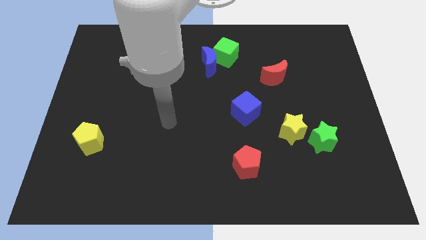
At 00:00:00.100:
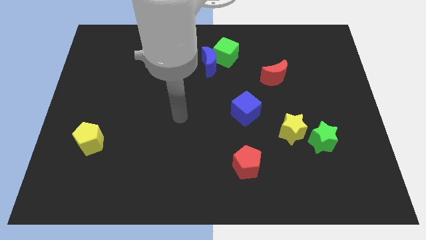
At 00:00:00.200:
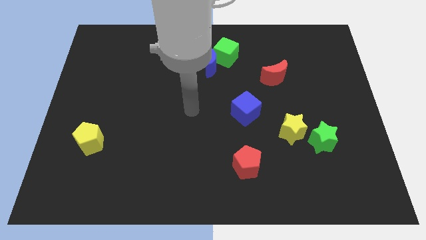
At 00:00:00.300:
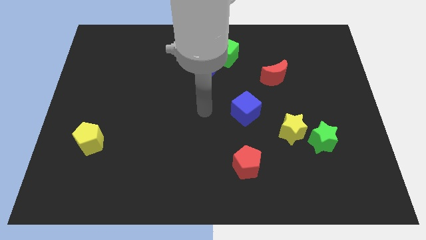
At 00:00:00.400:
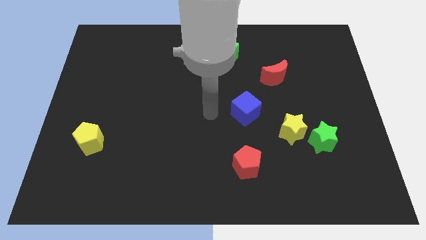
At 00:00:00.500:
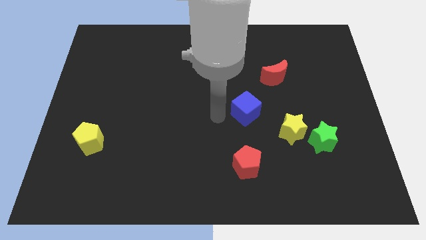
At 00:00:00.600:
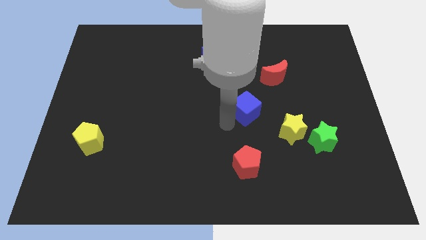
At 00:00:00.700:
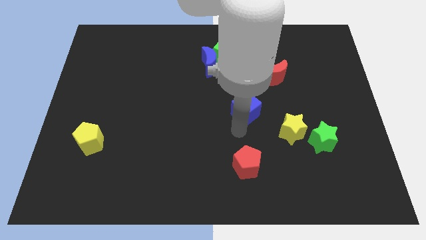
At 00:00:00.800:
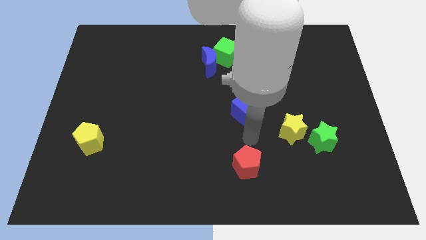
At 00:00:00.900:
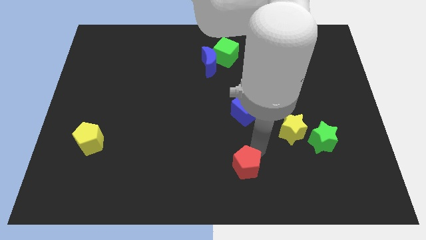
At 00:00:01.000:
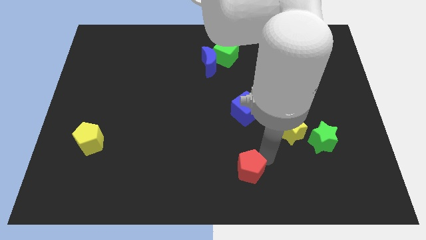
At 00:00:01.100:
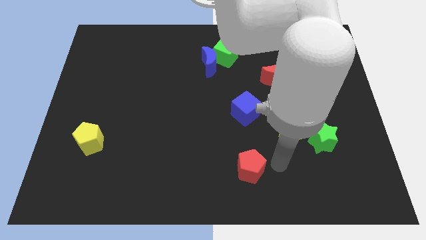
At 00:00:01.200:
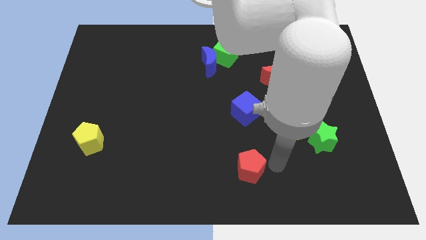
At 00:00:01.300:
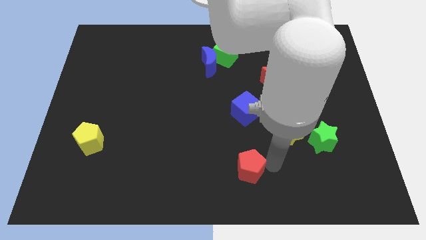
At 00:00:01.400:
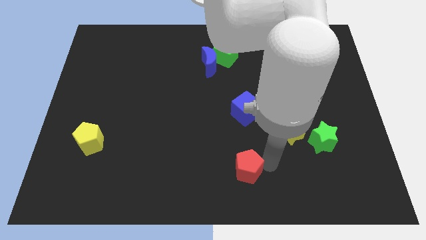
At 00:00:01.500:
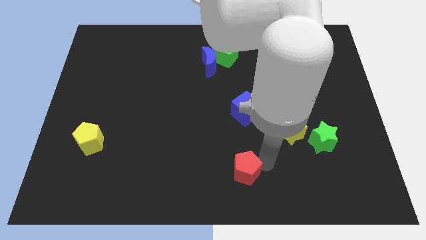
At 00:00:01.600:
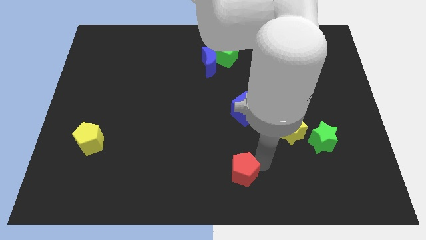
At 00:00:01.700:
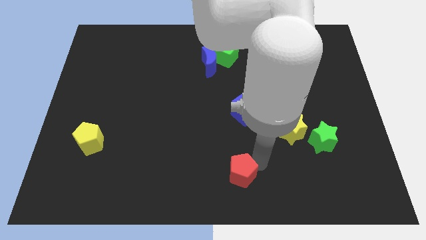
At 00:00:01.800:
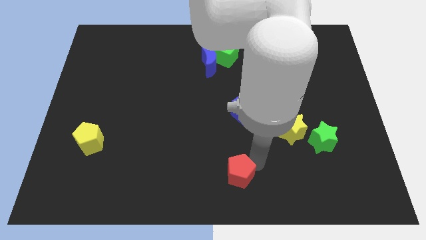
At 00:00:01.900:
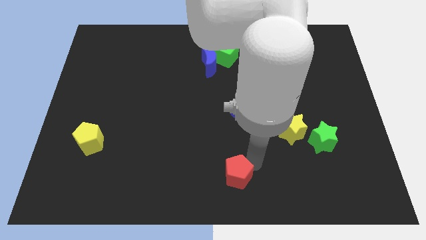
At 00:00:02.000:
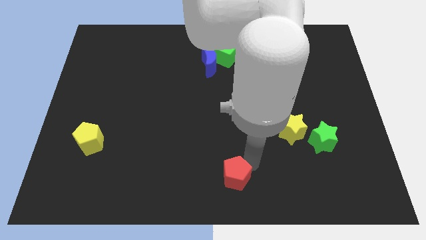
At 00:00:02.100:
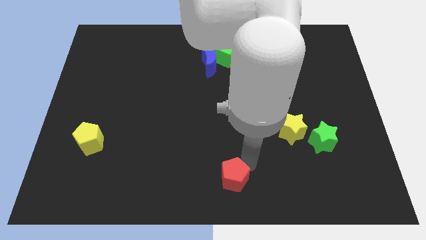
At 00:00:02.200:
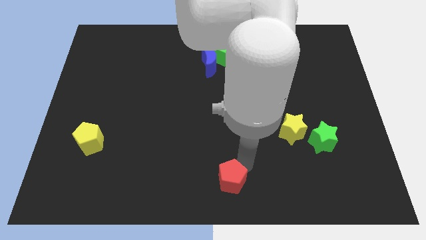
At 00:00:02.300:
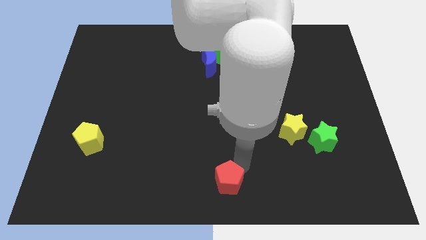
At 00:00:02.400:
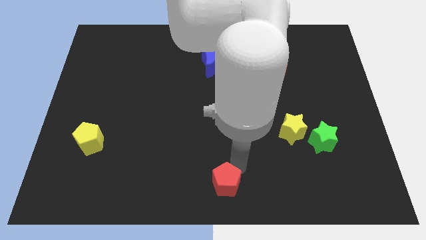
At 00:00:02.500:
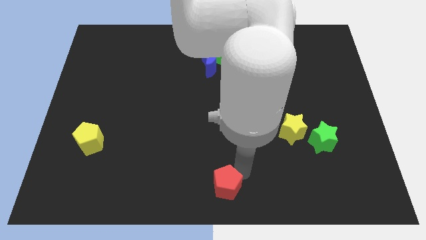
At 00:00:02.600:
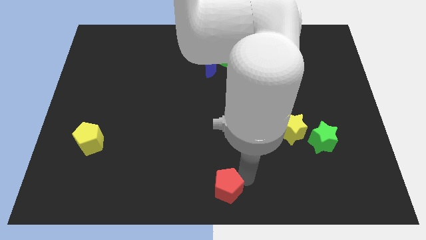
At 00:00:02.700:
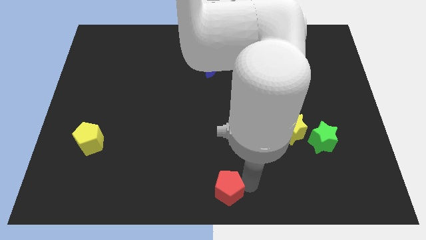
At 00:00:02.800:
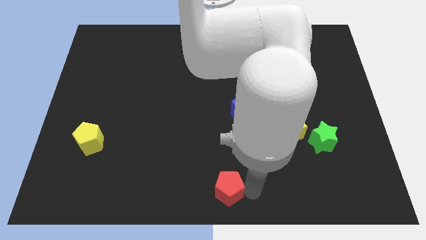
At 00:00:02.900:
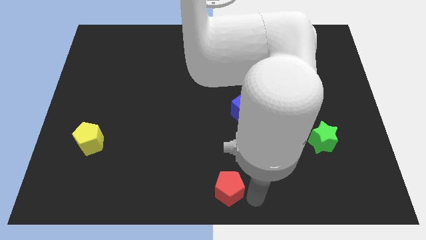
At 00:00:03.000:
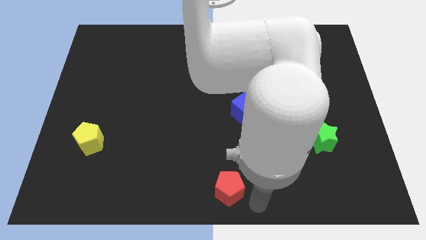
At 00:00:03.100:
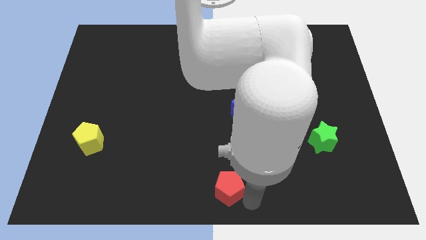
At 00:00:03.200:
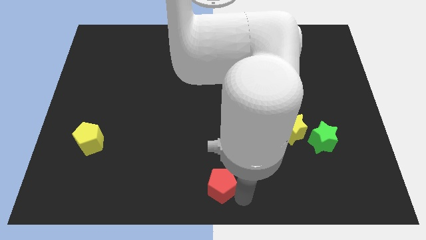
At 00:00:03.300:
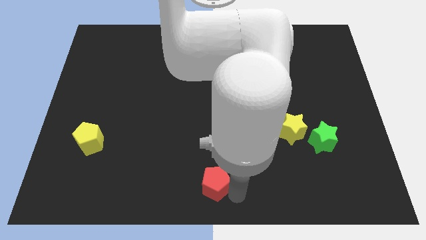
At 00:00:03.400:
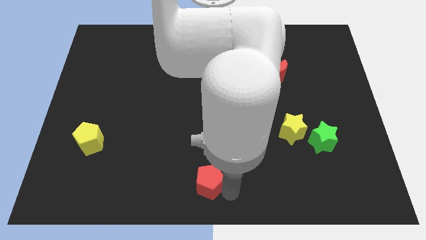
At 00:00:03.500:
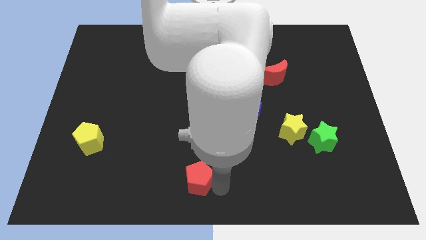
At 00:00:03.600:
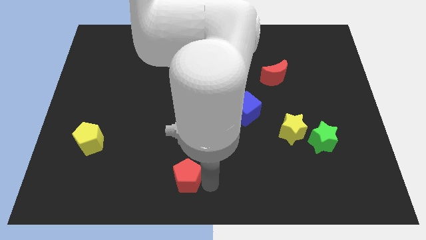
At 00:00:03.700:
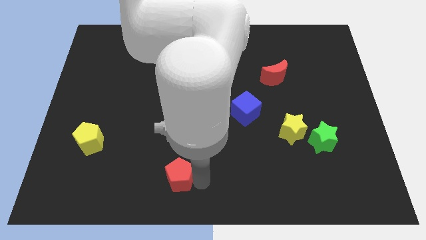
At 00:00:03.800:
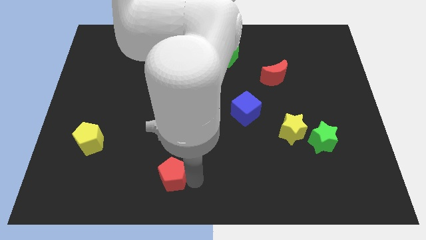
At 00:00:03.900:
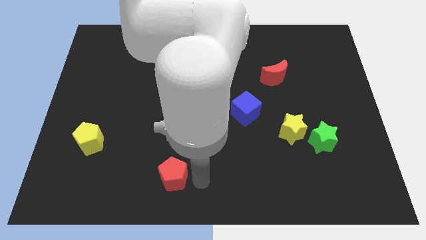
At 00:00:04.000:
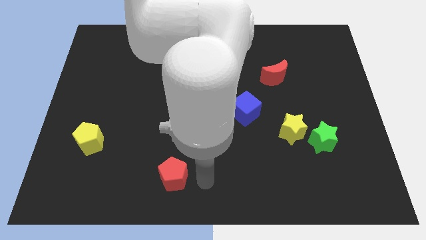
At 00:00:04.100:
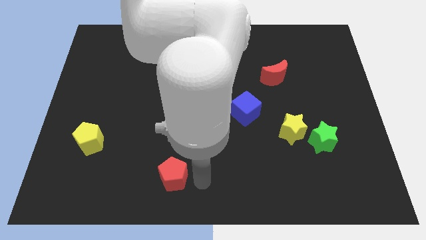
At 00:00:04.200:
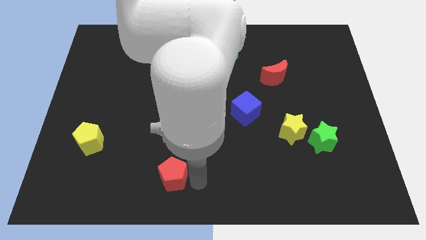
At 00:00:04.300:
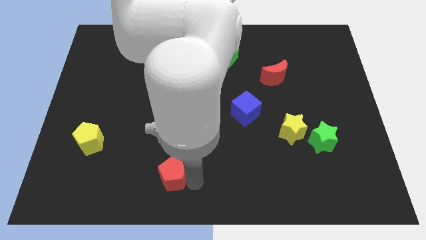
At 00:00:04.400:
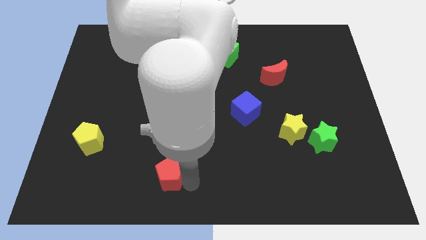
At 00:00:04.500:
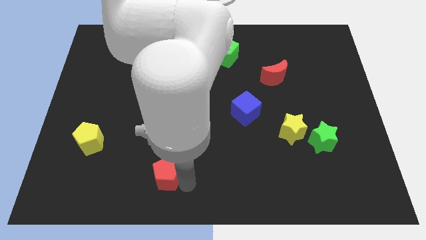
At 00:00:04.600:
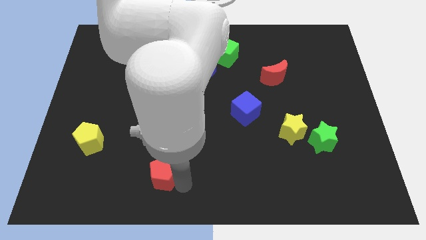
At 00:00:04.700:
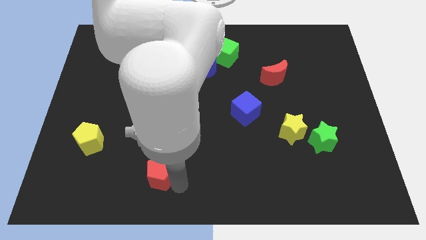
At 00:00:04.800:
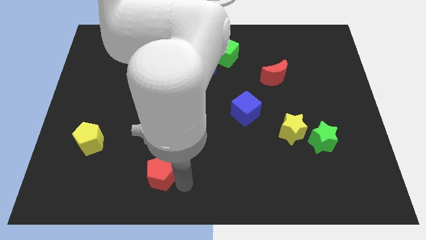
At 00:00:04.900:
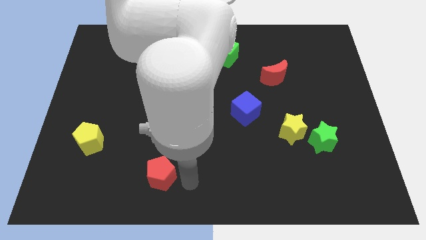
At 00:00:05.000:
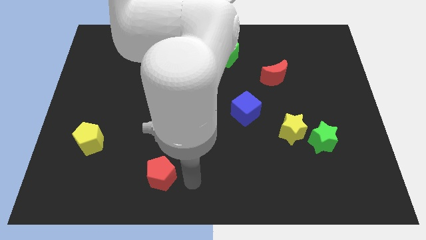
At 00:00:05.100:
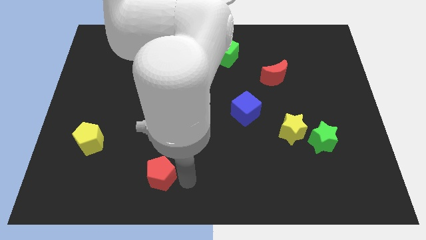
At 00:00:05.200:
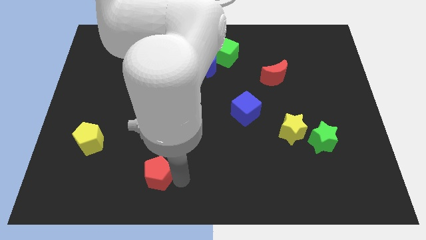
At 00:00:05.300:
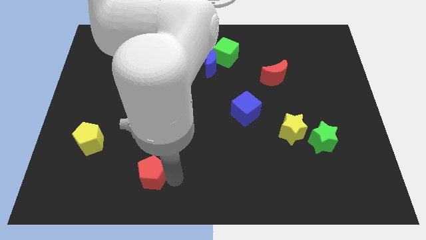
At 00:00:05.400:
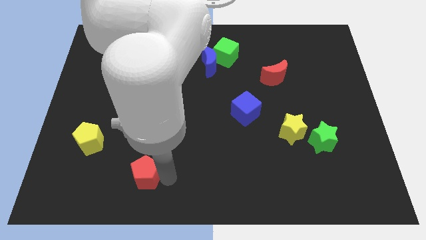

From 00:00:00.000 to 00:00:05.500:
slide the red pentagon left

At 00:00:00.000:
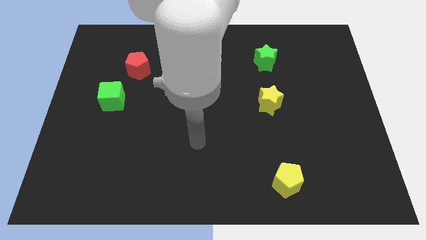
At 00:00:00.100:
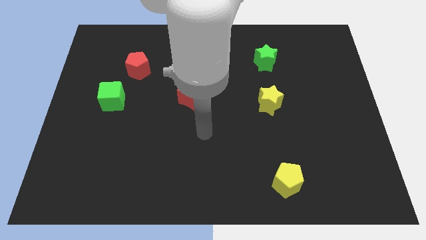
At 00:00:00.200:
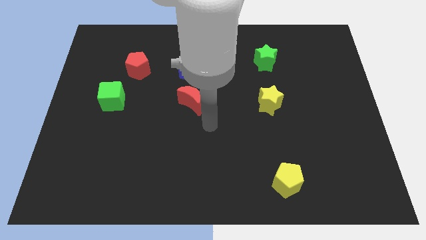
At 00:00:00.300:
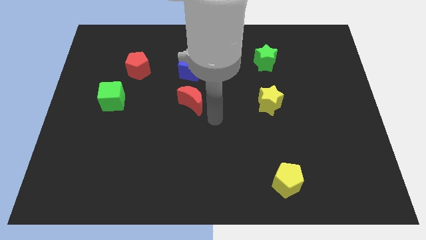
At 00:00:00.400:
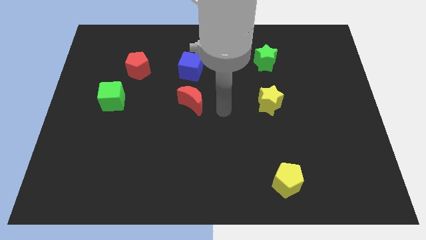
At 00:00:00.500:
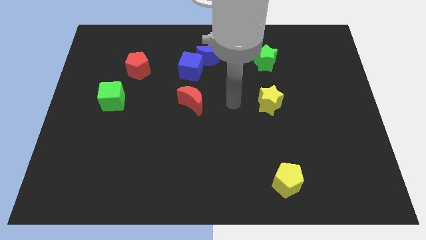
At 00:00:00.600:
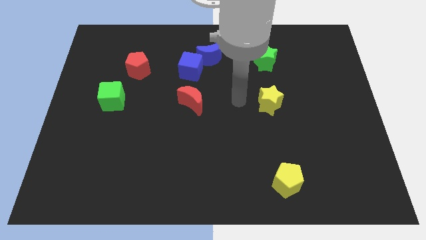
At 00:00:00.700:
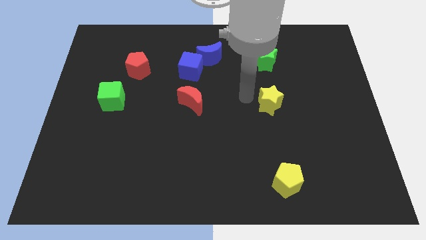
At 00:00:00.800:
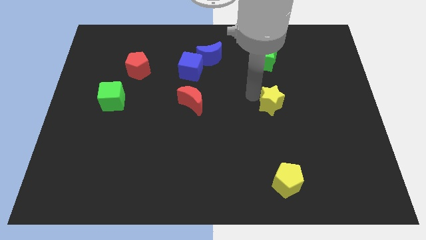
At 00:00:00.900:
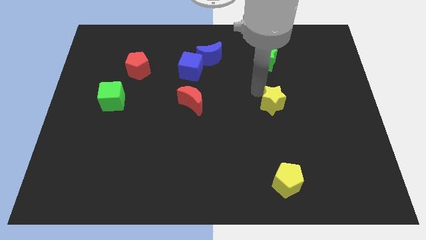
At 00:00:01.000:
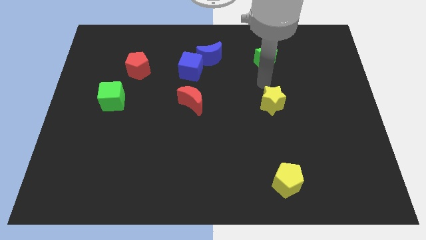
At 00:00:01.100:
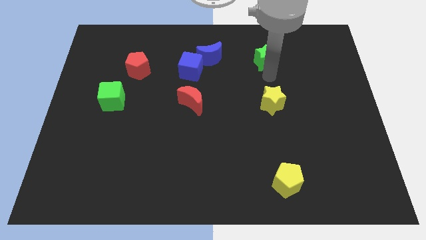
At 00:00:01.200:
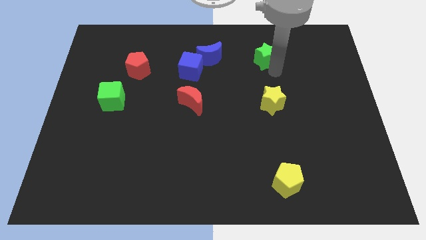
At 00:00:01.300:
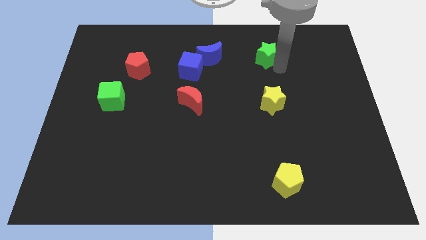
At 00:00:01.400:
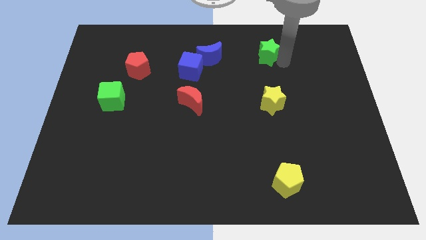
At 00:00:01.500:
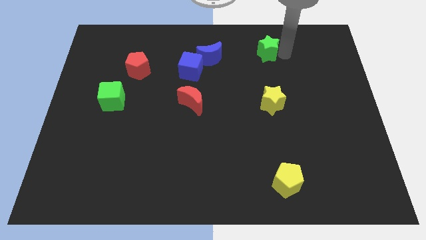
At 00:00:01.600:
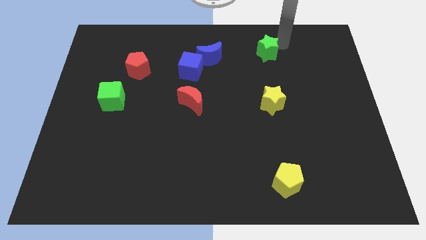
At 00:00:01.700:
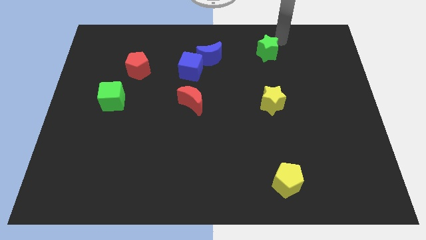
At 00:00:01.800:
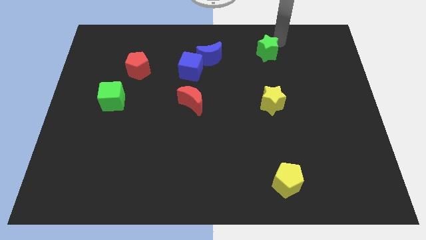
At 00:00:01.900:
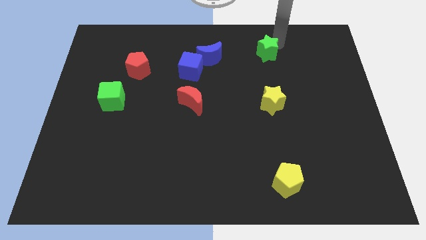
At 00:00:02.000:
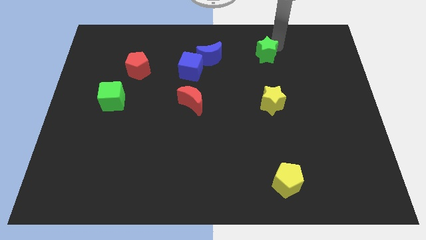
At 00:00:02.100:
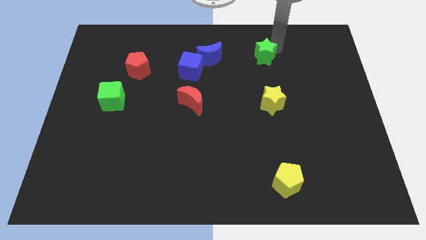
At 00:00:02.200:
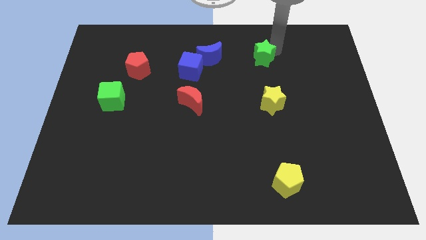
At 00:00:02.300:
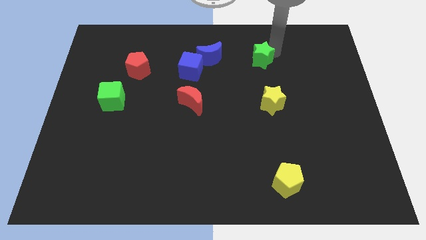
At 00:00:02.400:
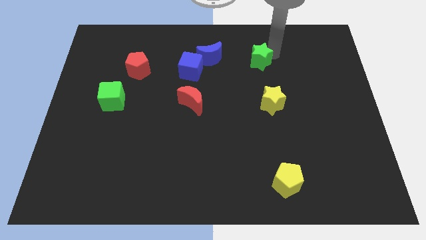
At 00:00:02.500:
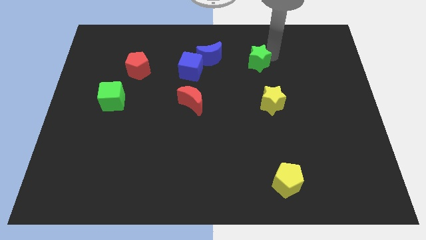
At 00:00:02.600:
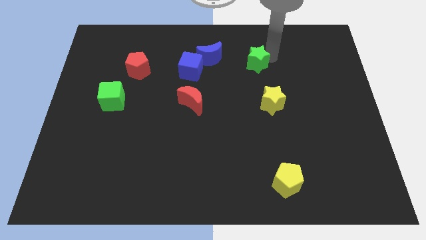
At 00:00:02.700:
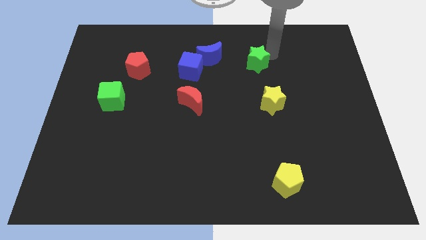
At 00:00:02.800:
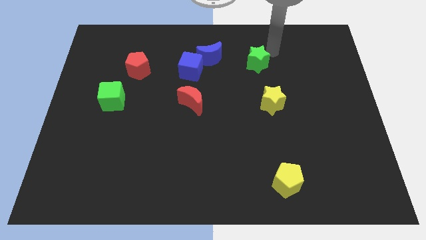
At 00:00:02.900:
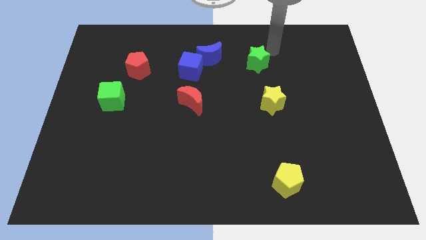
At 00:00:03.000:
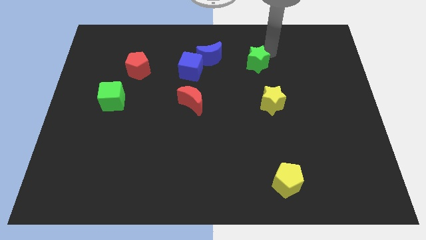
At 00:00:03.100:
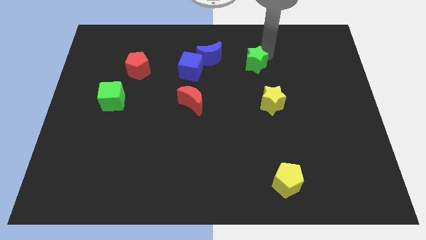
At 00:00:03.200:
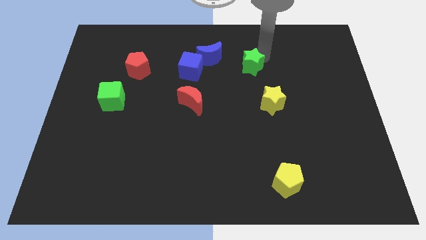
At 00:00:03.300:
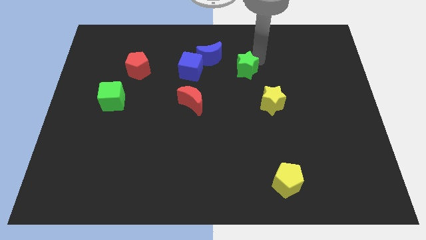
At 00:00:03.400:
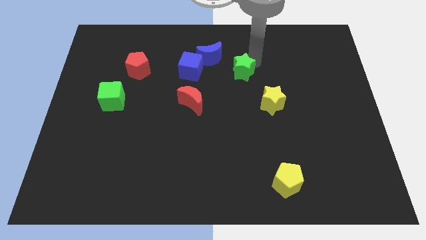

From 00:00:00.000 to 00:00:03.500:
slide the green star a little bit downwards and to the left diagonally
